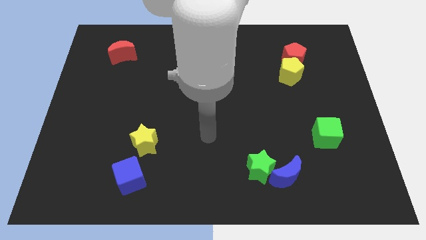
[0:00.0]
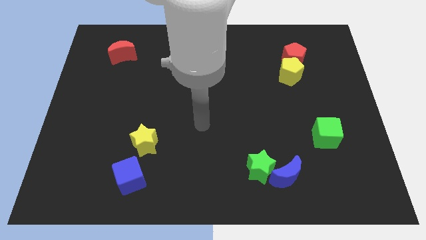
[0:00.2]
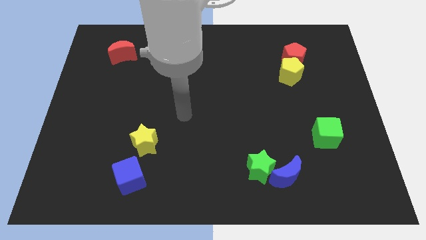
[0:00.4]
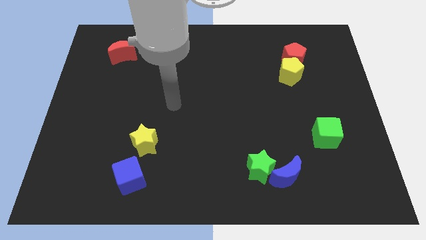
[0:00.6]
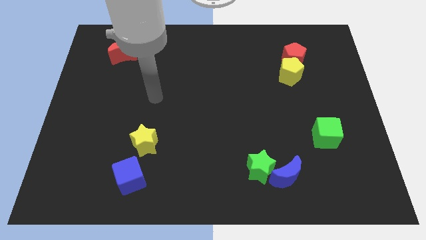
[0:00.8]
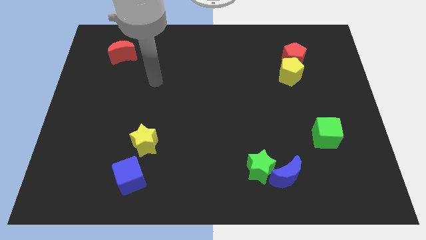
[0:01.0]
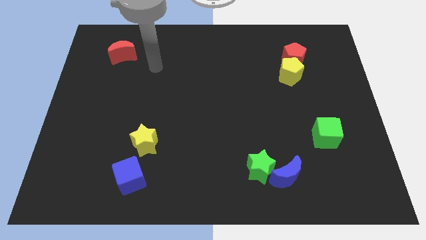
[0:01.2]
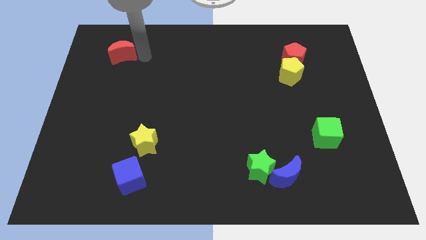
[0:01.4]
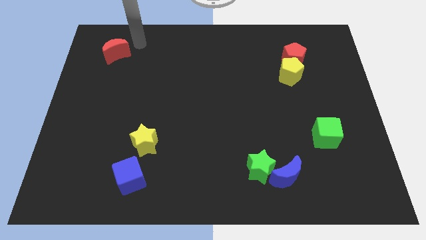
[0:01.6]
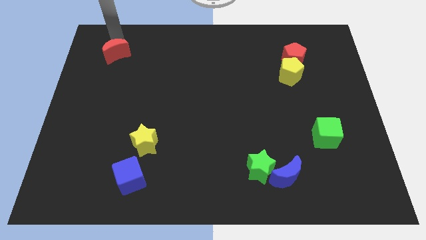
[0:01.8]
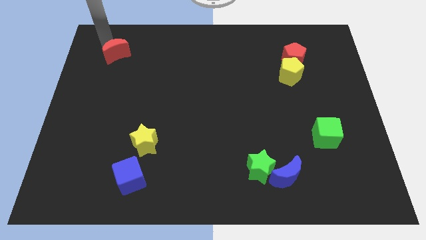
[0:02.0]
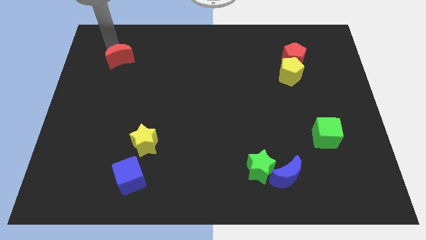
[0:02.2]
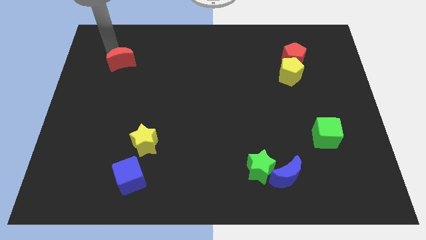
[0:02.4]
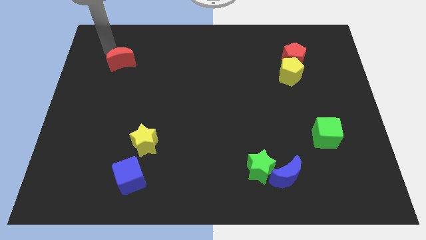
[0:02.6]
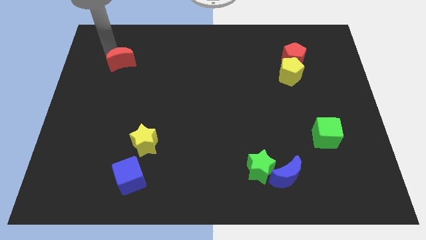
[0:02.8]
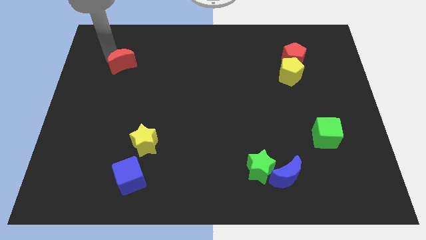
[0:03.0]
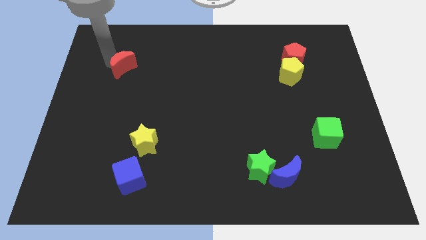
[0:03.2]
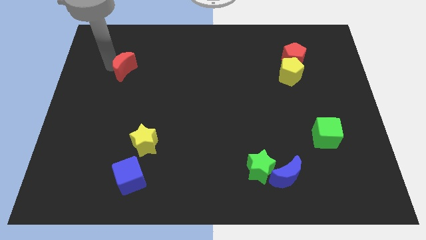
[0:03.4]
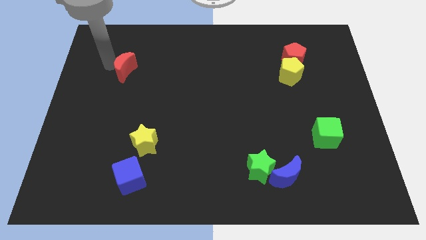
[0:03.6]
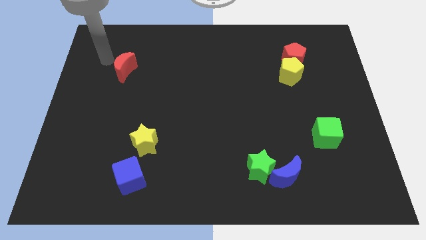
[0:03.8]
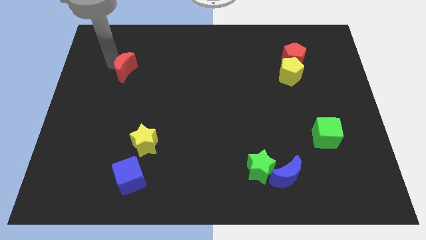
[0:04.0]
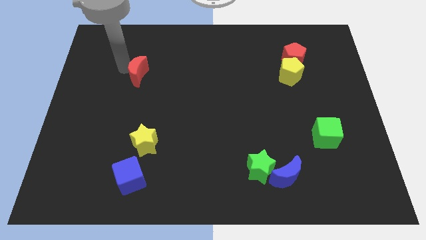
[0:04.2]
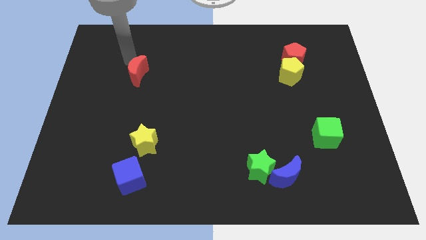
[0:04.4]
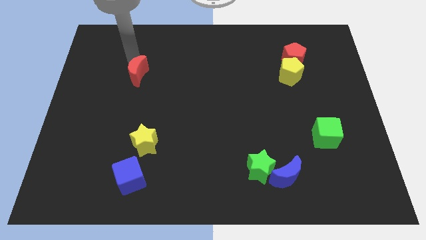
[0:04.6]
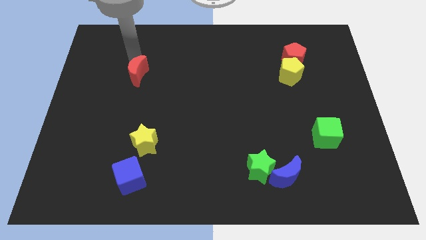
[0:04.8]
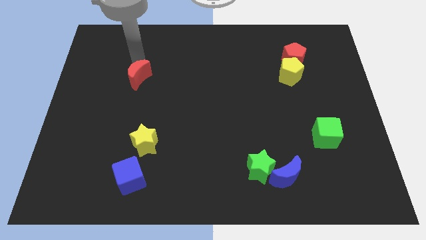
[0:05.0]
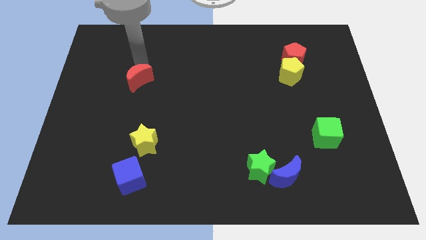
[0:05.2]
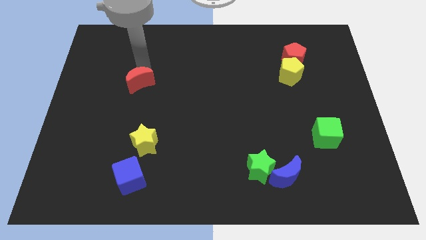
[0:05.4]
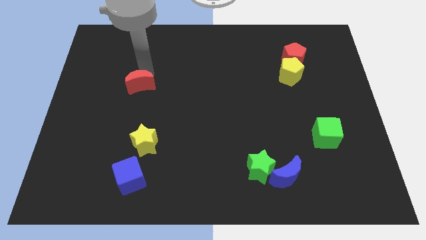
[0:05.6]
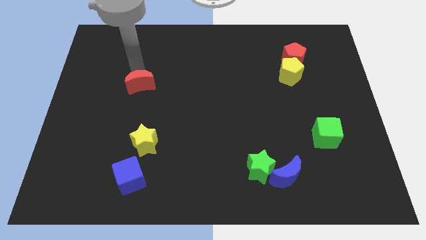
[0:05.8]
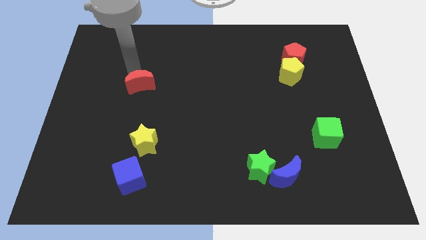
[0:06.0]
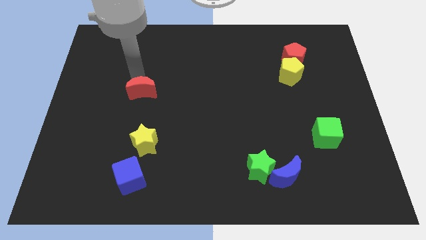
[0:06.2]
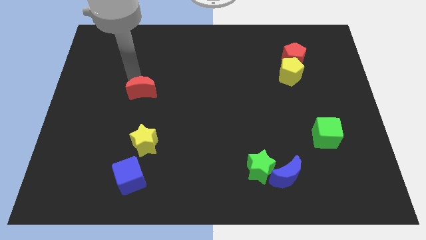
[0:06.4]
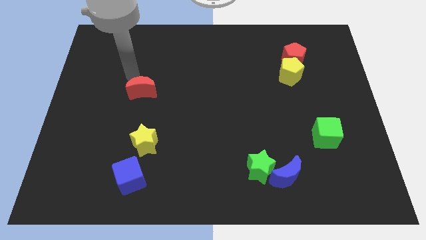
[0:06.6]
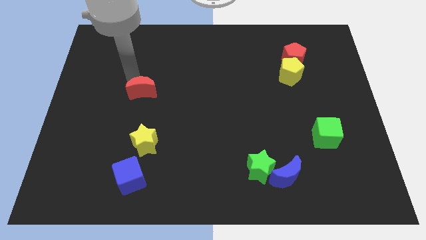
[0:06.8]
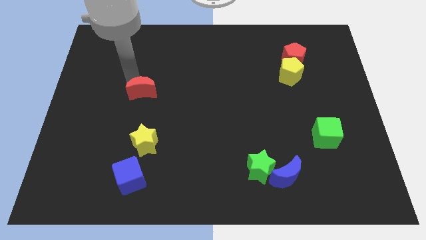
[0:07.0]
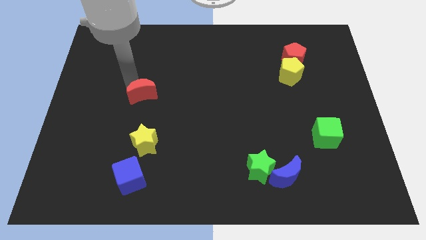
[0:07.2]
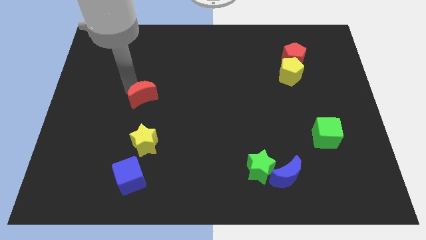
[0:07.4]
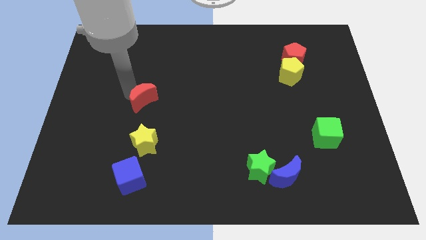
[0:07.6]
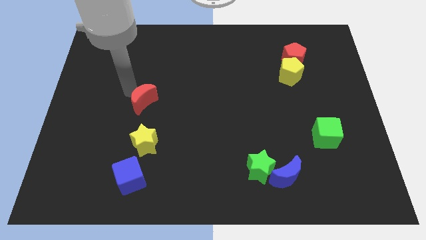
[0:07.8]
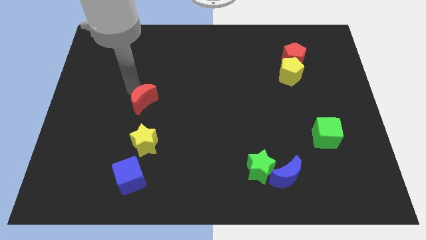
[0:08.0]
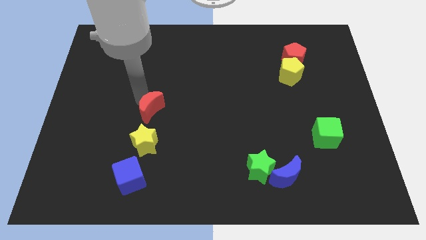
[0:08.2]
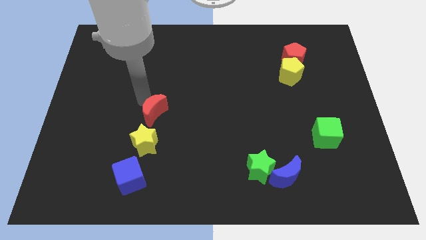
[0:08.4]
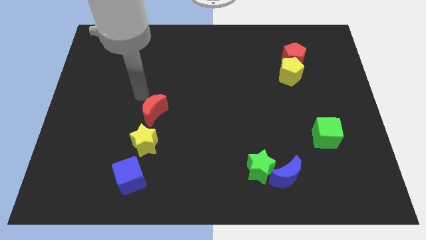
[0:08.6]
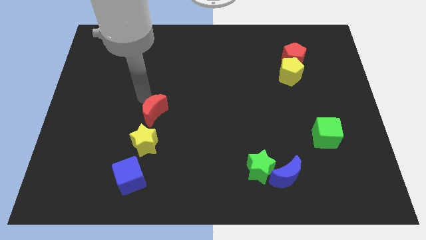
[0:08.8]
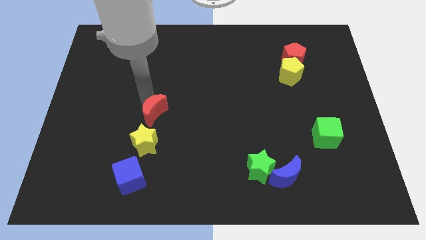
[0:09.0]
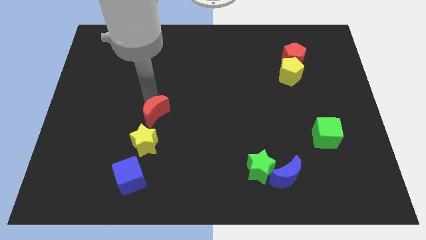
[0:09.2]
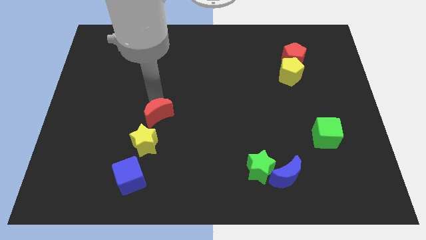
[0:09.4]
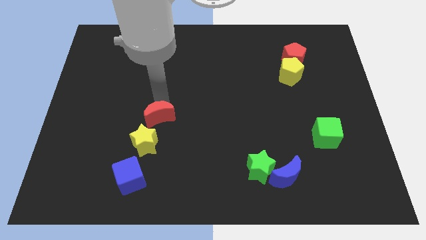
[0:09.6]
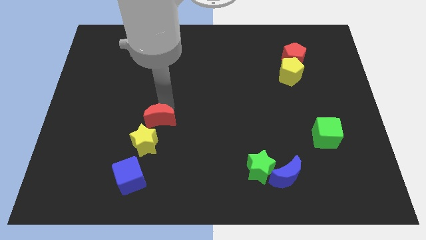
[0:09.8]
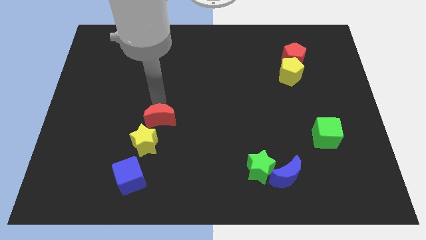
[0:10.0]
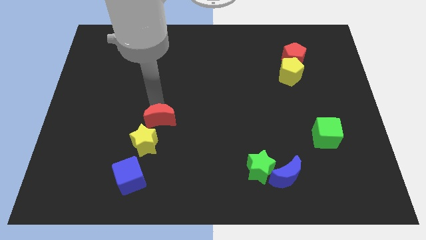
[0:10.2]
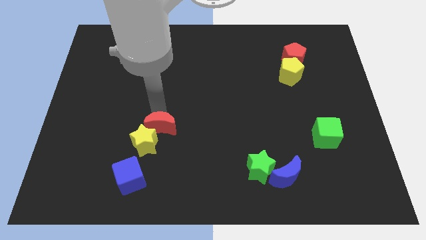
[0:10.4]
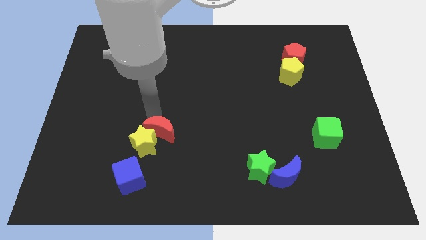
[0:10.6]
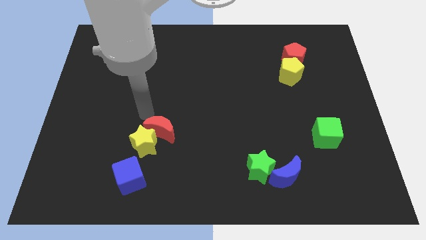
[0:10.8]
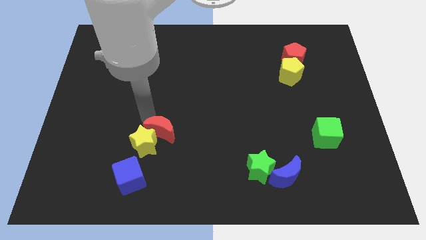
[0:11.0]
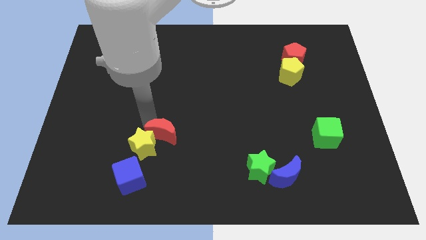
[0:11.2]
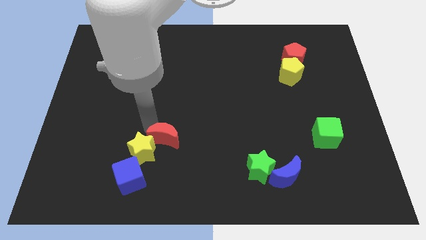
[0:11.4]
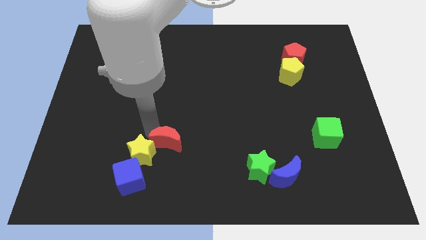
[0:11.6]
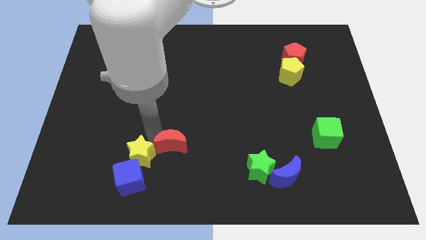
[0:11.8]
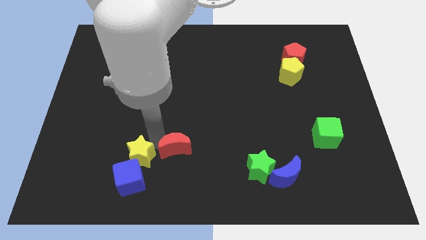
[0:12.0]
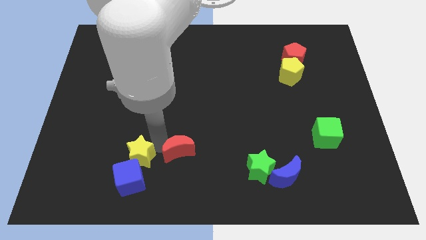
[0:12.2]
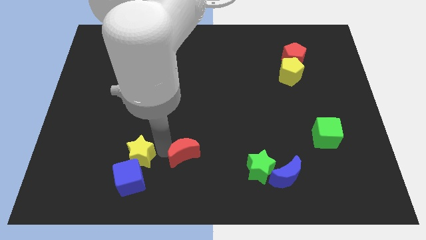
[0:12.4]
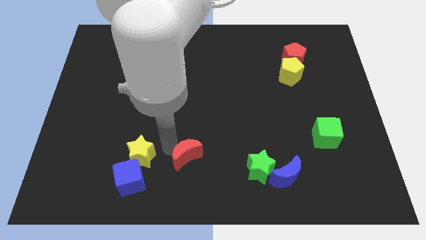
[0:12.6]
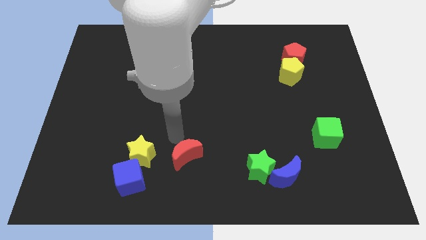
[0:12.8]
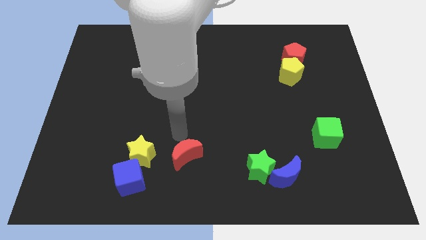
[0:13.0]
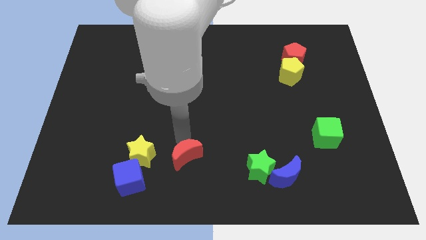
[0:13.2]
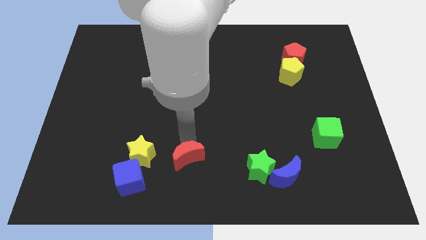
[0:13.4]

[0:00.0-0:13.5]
push the red moon to the bottom
